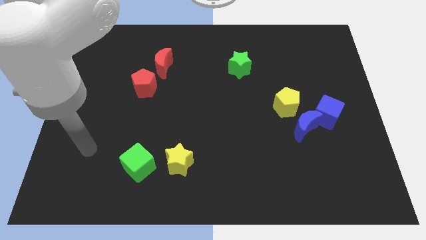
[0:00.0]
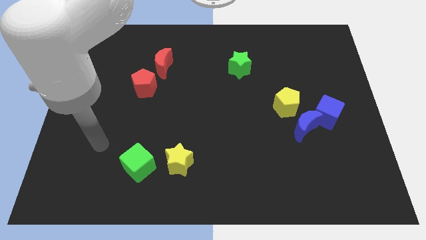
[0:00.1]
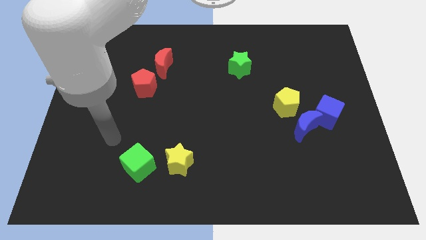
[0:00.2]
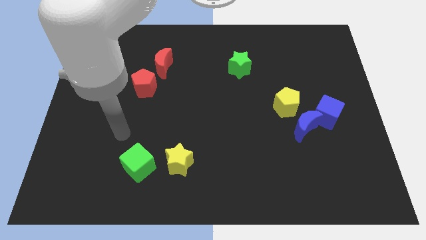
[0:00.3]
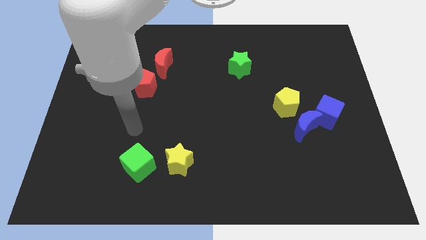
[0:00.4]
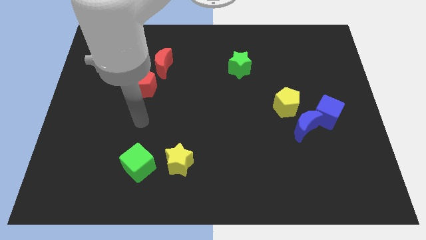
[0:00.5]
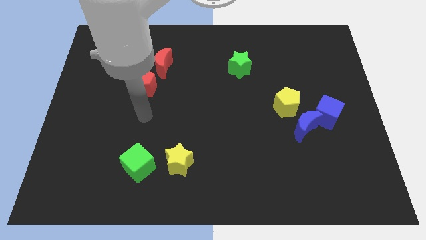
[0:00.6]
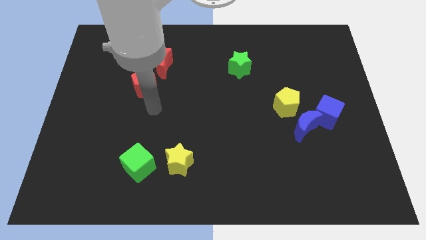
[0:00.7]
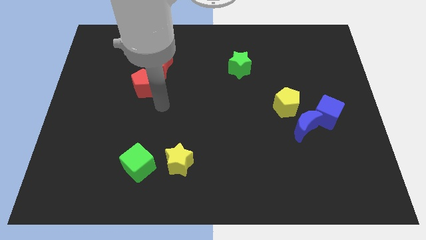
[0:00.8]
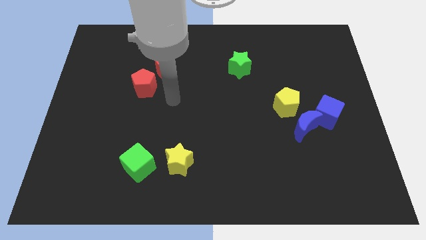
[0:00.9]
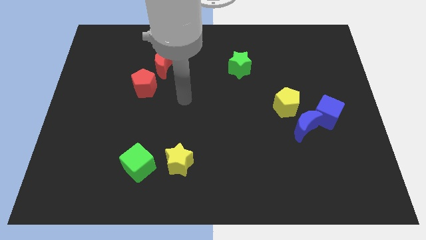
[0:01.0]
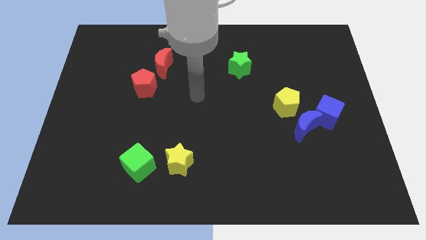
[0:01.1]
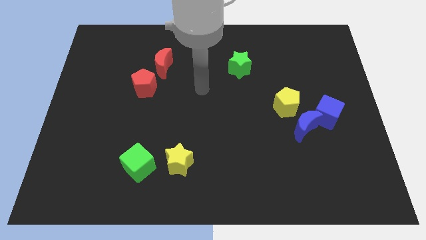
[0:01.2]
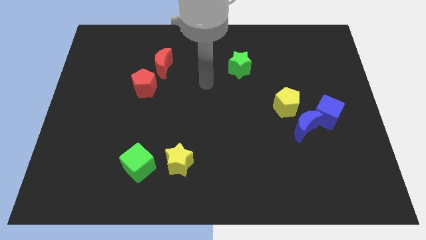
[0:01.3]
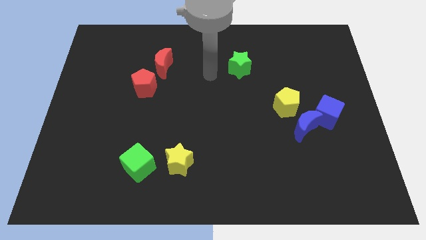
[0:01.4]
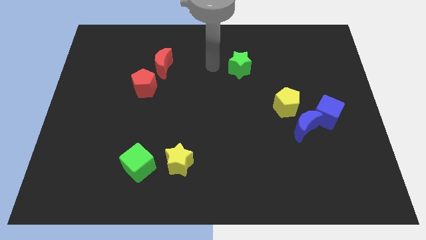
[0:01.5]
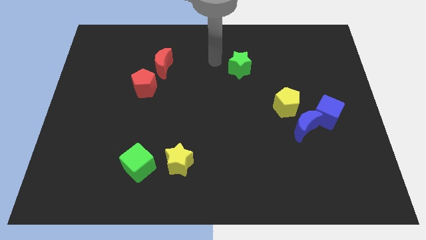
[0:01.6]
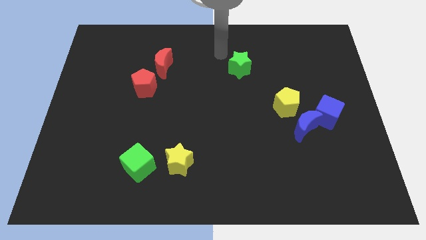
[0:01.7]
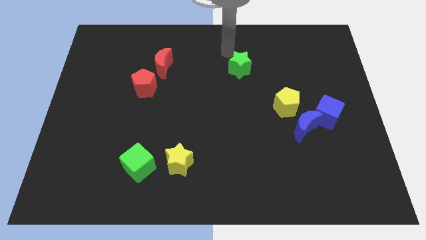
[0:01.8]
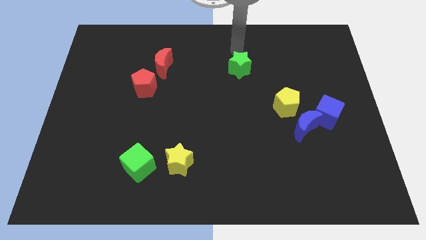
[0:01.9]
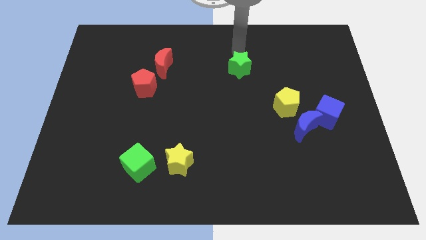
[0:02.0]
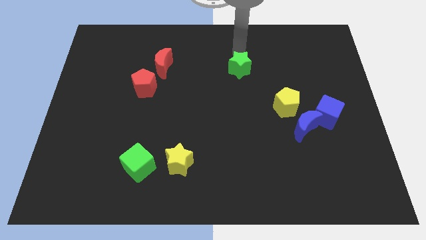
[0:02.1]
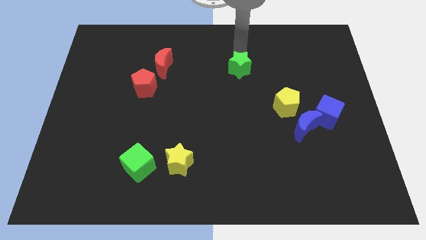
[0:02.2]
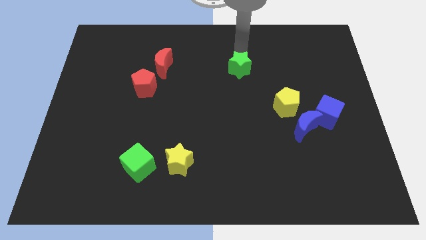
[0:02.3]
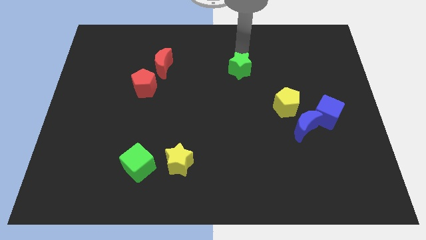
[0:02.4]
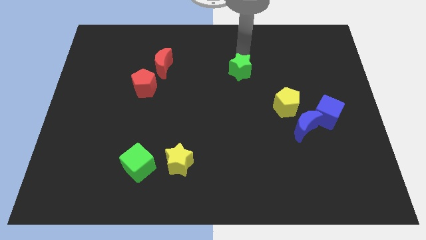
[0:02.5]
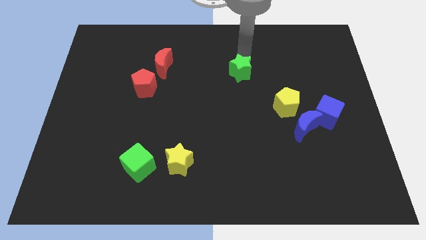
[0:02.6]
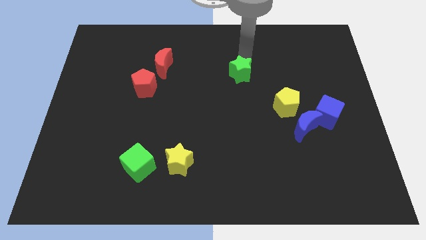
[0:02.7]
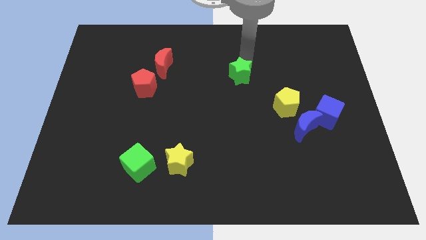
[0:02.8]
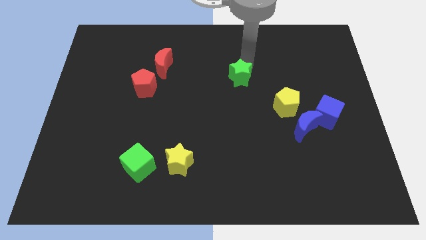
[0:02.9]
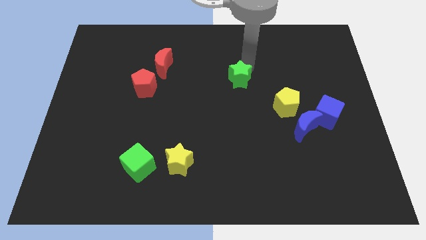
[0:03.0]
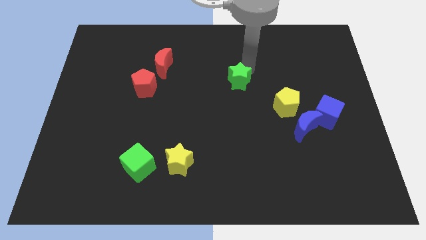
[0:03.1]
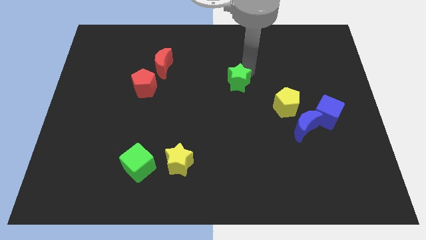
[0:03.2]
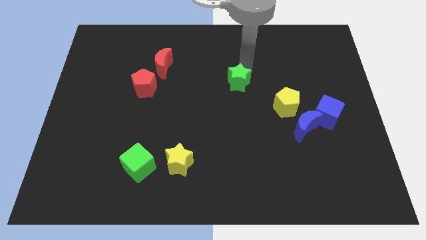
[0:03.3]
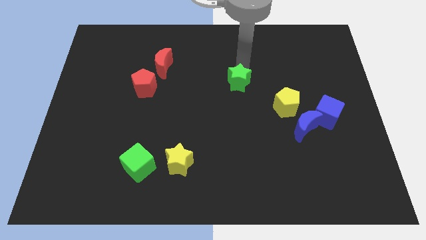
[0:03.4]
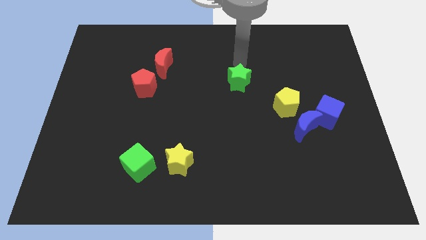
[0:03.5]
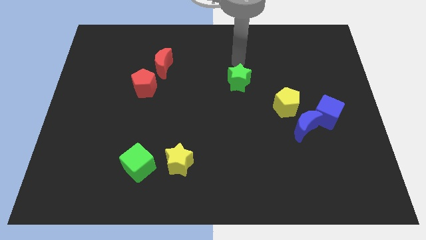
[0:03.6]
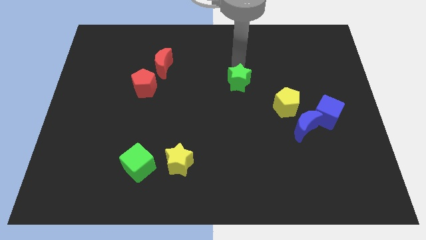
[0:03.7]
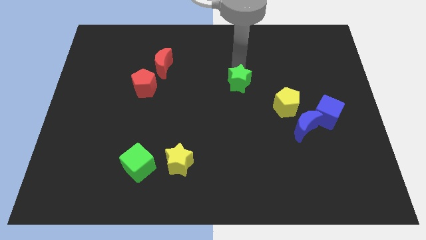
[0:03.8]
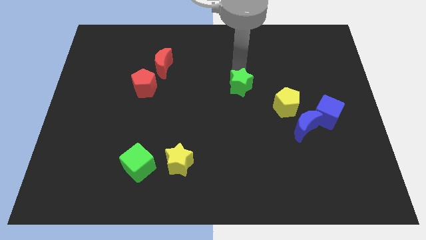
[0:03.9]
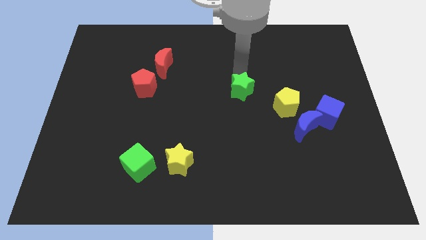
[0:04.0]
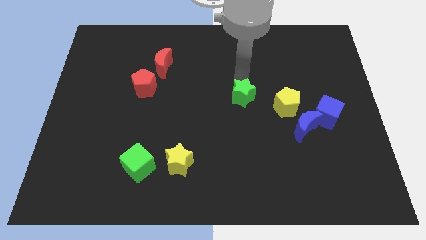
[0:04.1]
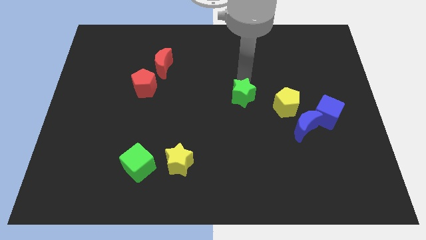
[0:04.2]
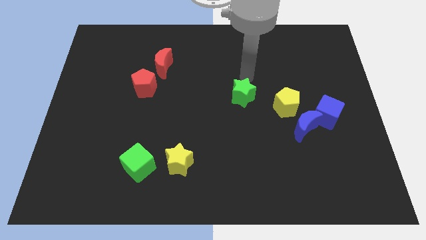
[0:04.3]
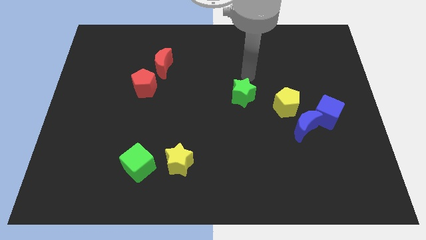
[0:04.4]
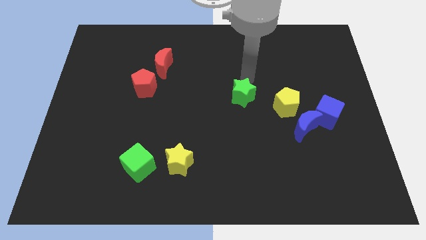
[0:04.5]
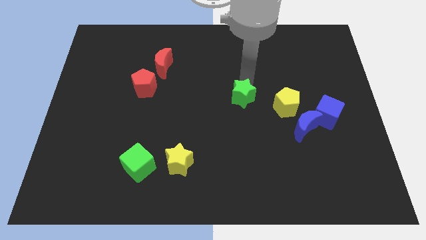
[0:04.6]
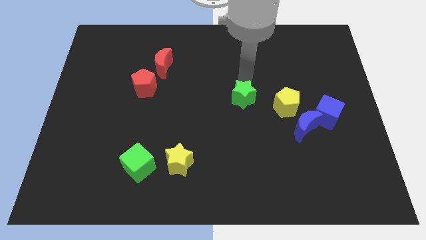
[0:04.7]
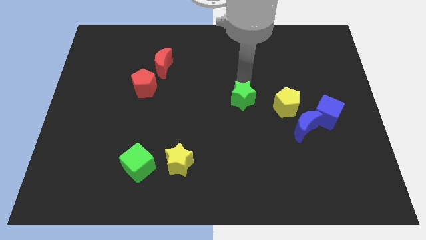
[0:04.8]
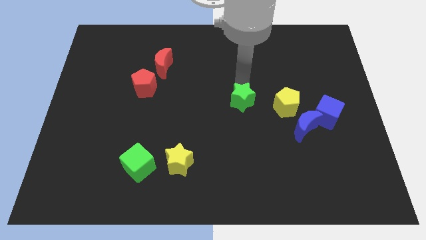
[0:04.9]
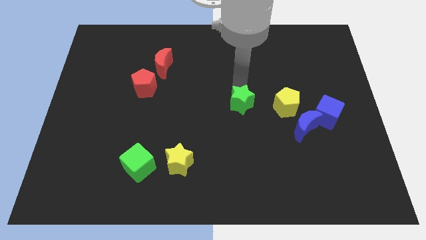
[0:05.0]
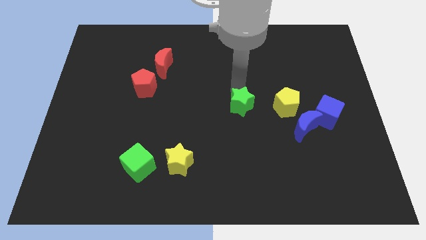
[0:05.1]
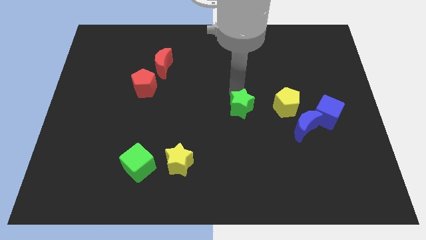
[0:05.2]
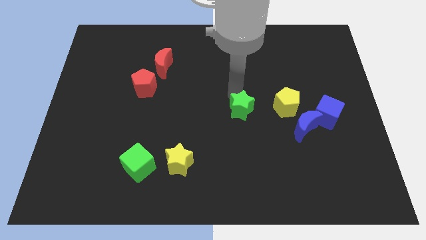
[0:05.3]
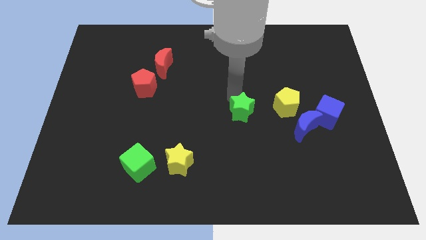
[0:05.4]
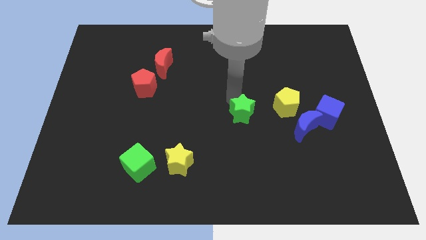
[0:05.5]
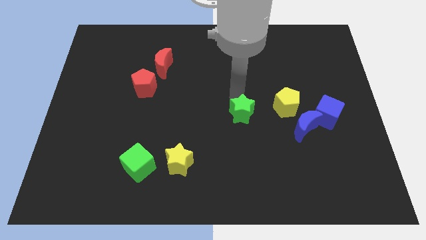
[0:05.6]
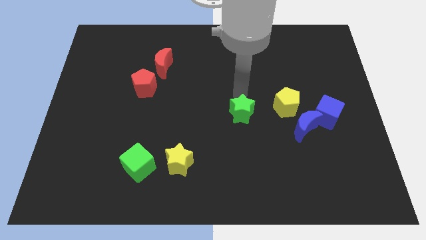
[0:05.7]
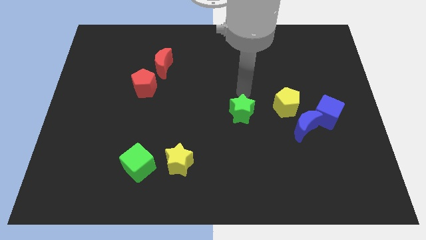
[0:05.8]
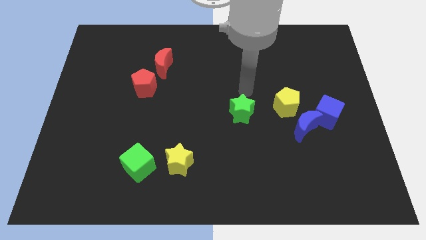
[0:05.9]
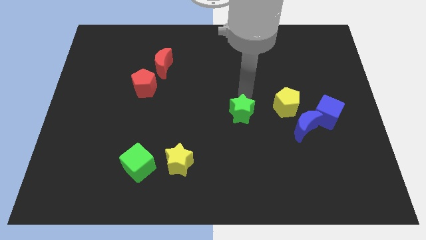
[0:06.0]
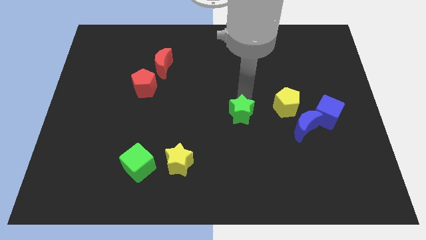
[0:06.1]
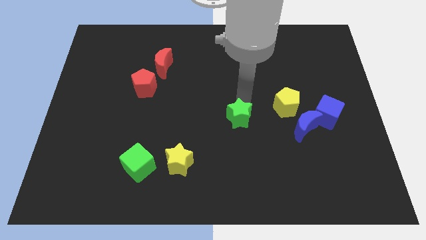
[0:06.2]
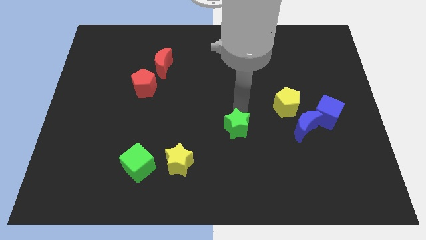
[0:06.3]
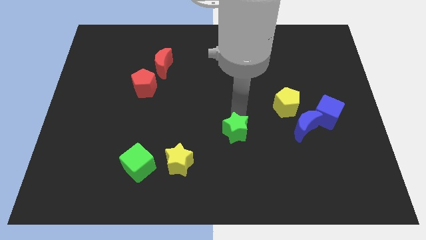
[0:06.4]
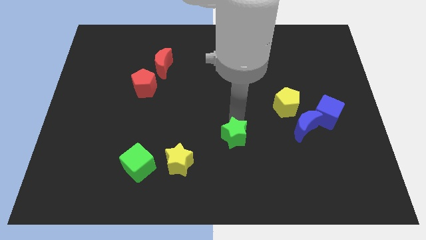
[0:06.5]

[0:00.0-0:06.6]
slide the green star downwards

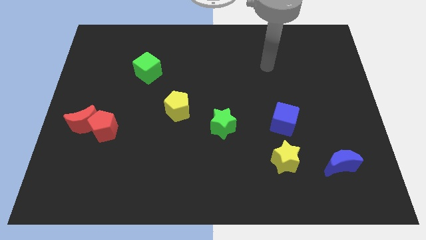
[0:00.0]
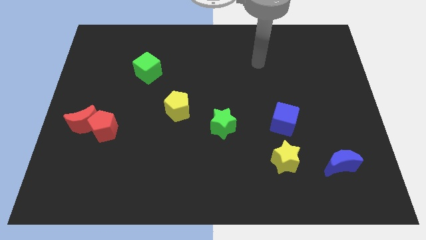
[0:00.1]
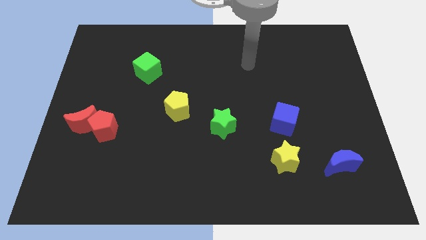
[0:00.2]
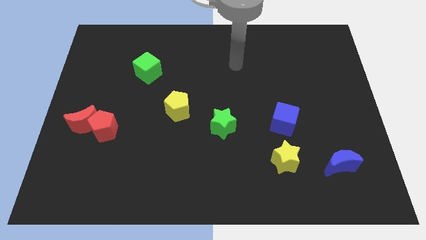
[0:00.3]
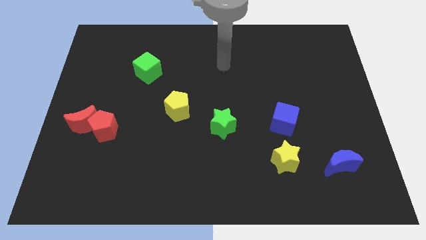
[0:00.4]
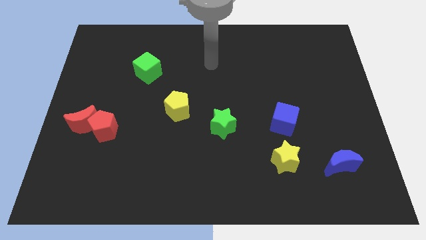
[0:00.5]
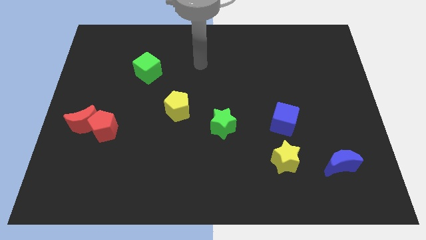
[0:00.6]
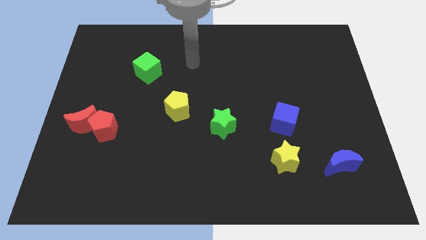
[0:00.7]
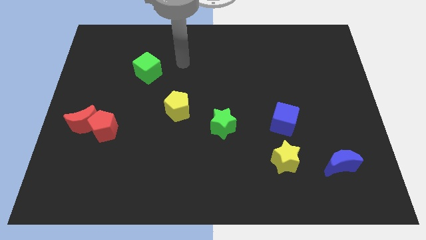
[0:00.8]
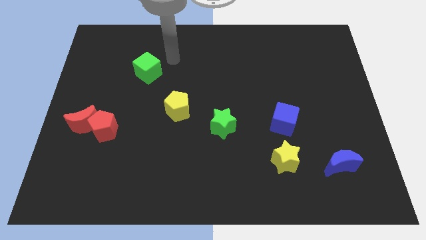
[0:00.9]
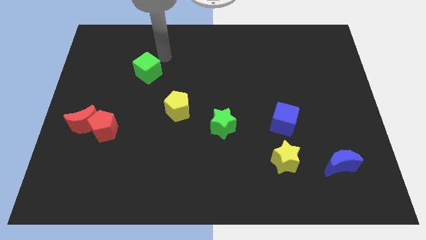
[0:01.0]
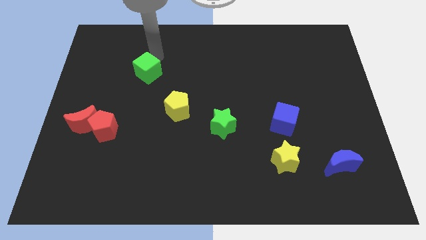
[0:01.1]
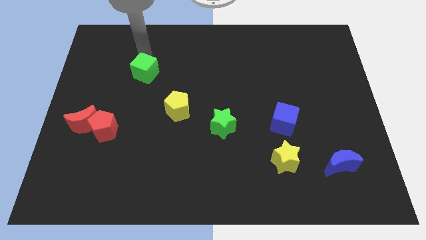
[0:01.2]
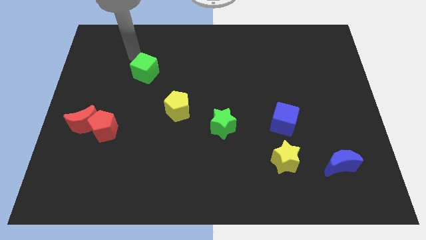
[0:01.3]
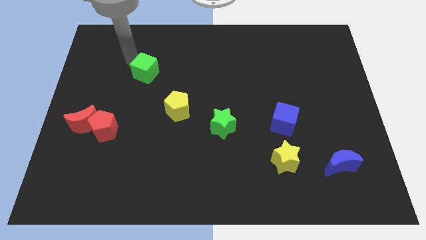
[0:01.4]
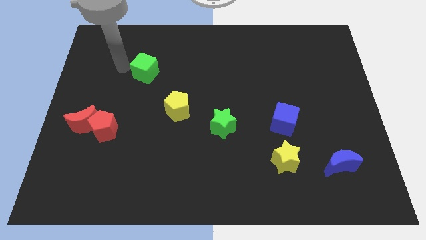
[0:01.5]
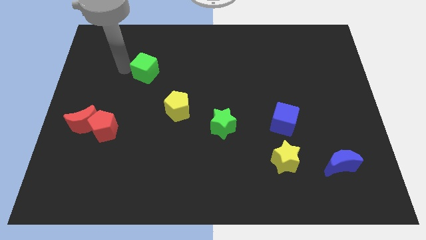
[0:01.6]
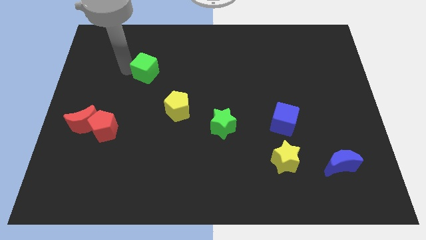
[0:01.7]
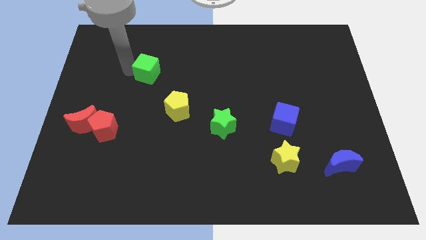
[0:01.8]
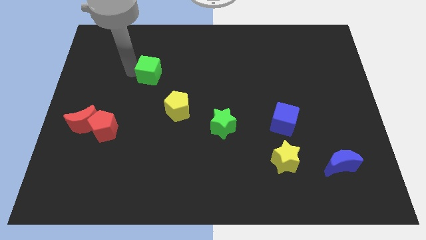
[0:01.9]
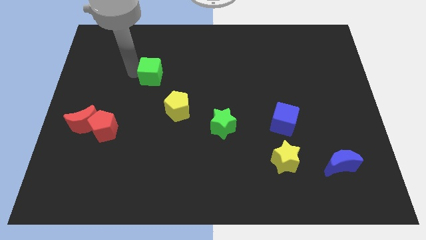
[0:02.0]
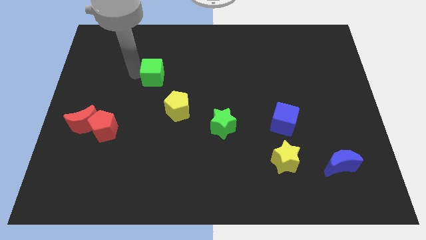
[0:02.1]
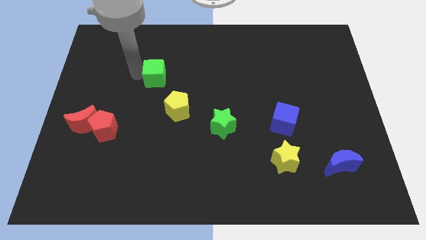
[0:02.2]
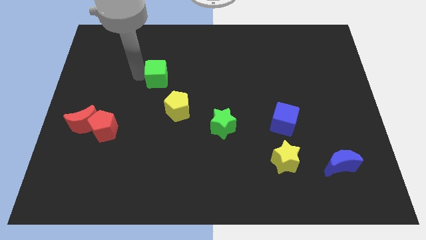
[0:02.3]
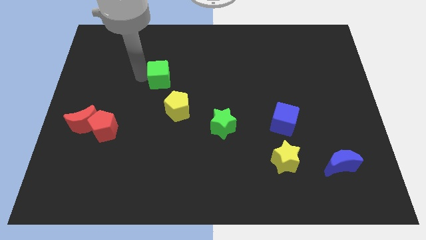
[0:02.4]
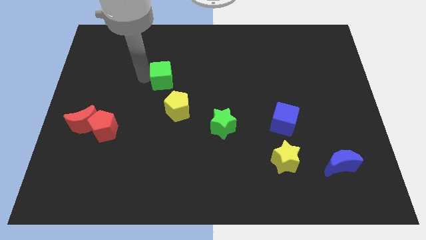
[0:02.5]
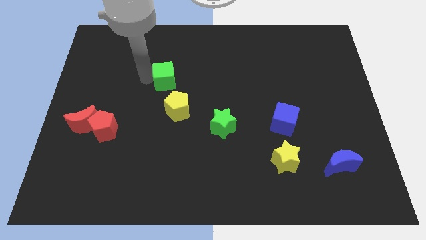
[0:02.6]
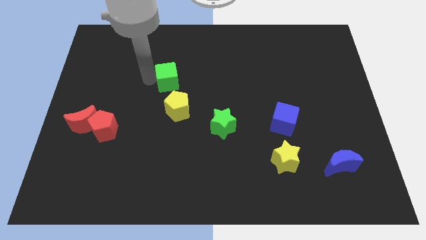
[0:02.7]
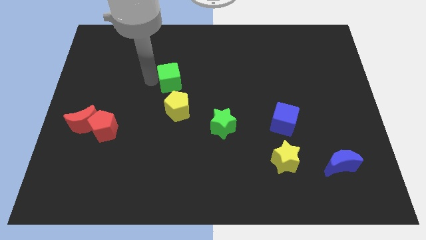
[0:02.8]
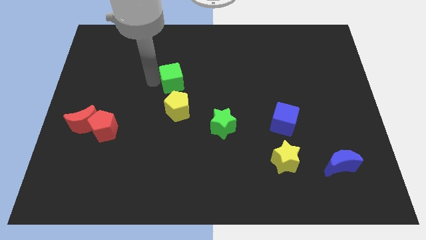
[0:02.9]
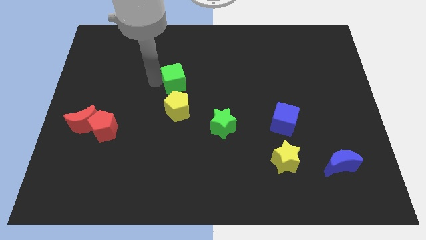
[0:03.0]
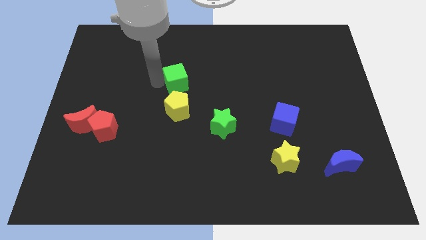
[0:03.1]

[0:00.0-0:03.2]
slide the green cube to the right a bit
